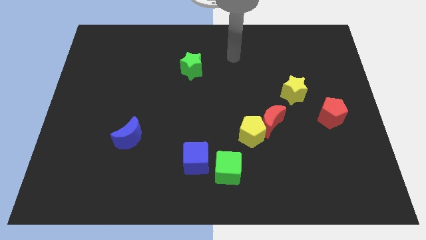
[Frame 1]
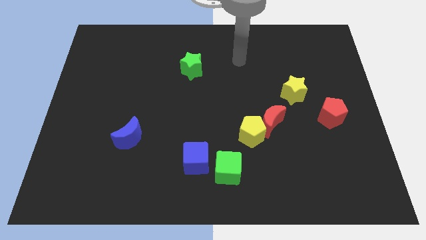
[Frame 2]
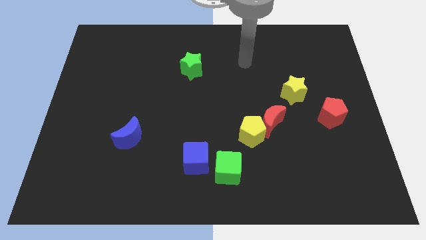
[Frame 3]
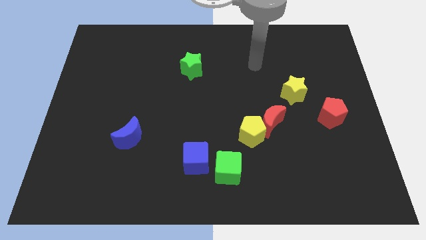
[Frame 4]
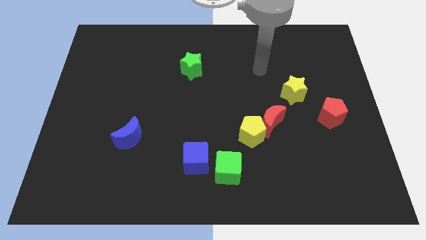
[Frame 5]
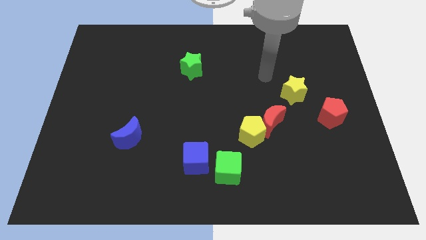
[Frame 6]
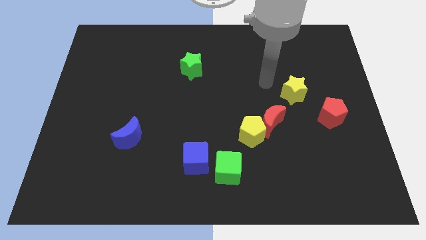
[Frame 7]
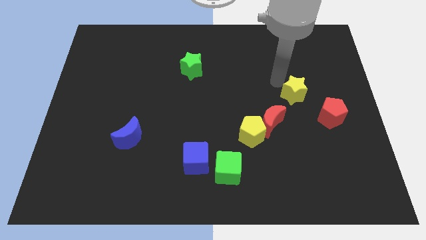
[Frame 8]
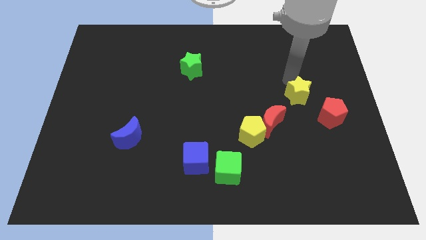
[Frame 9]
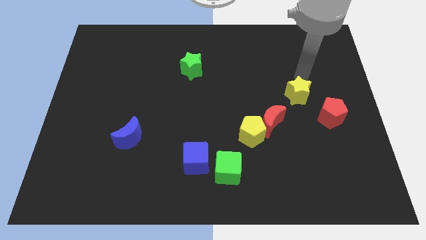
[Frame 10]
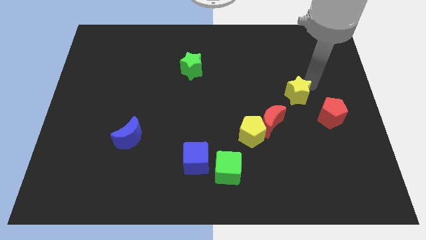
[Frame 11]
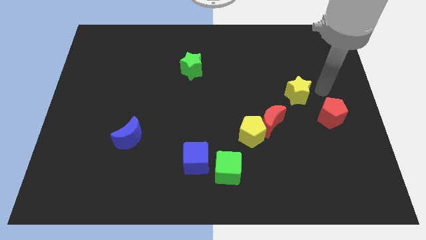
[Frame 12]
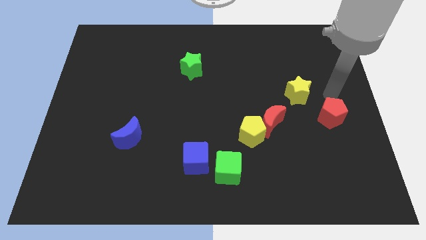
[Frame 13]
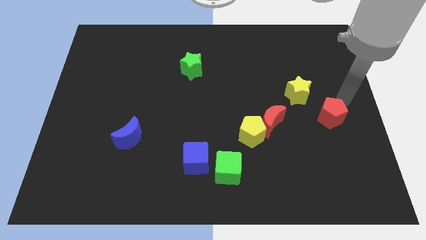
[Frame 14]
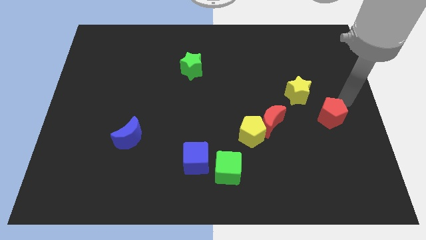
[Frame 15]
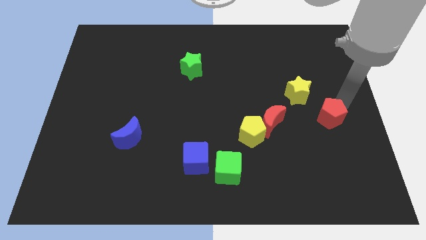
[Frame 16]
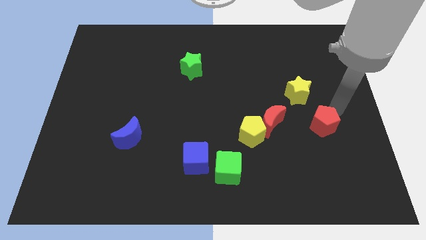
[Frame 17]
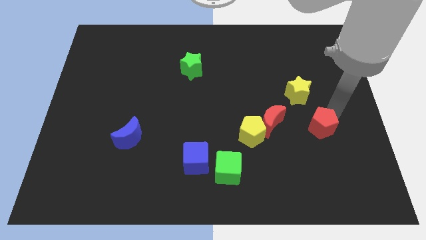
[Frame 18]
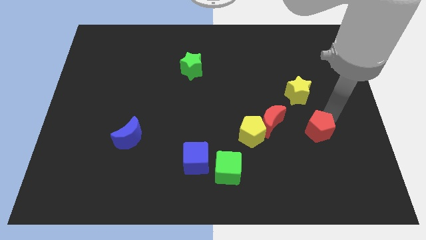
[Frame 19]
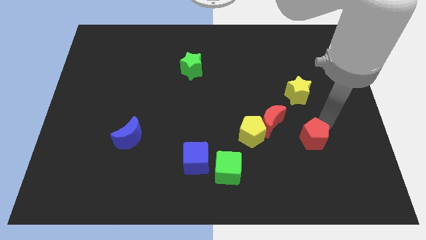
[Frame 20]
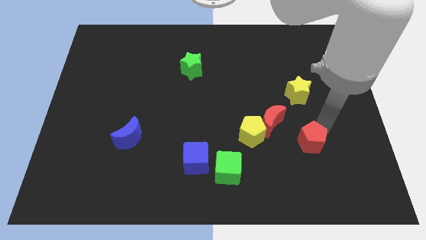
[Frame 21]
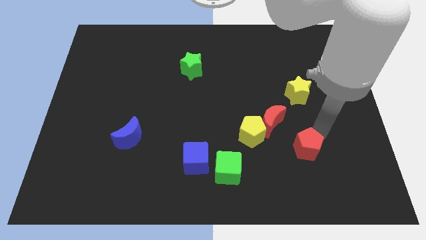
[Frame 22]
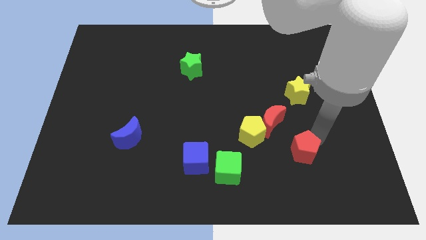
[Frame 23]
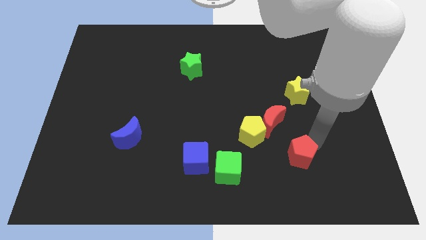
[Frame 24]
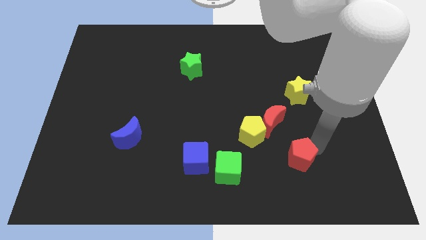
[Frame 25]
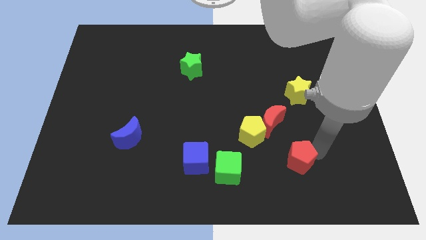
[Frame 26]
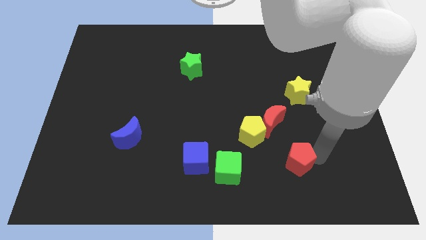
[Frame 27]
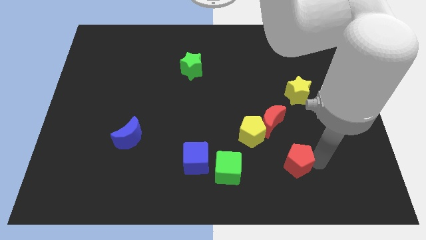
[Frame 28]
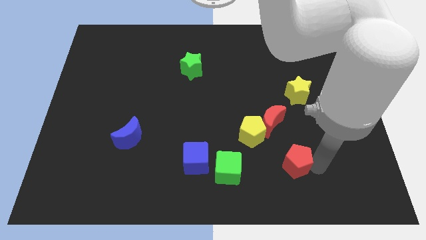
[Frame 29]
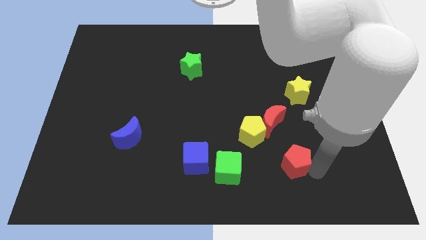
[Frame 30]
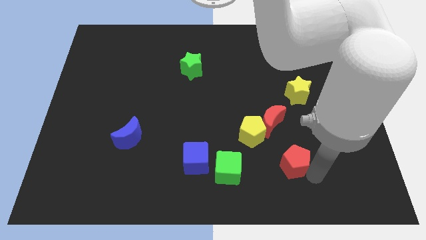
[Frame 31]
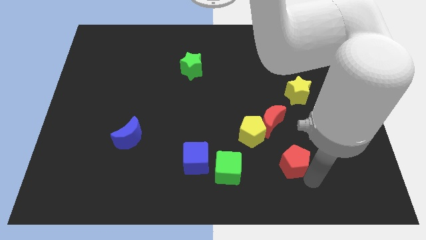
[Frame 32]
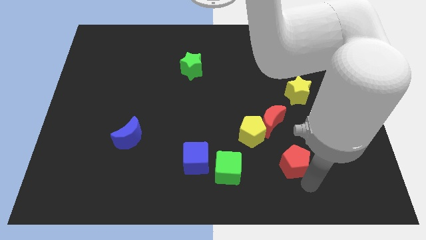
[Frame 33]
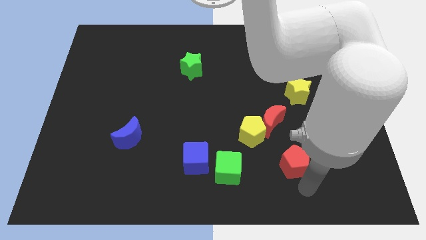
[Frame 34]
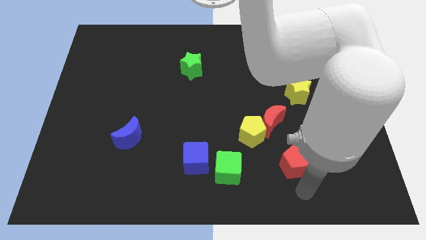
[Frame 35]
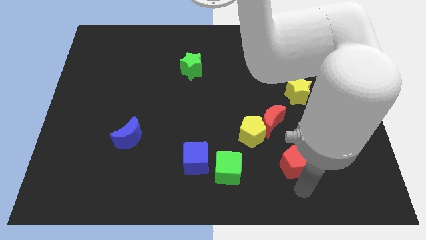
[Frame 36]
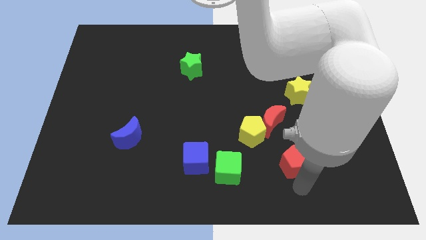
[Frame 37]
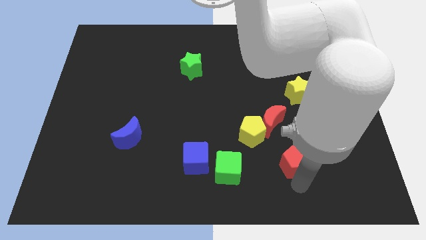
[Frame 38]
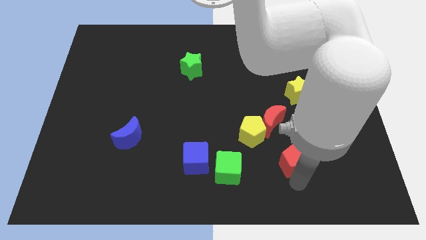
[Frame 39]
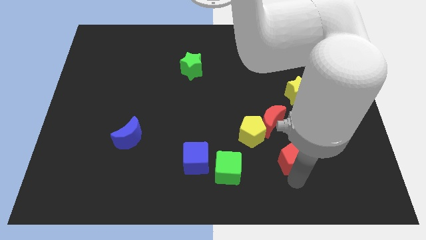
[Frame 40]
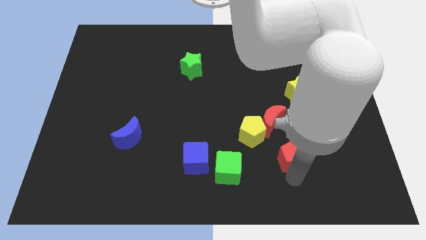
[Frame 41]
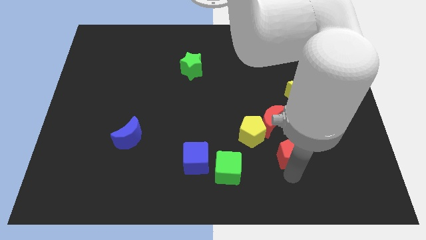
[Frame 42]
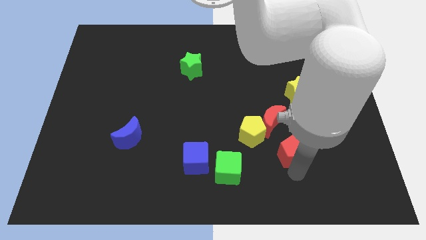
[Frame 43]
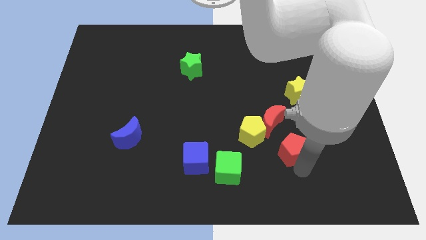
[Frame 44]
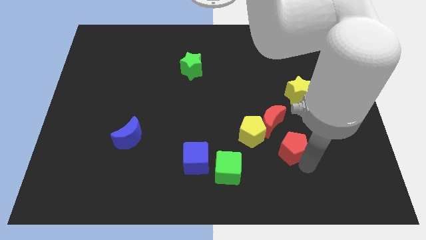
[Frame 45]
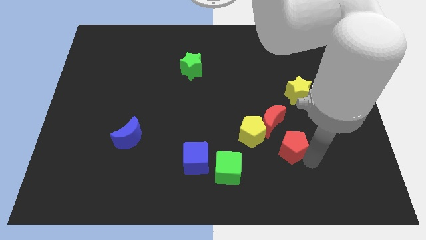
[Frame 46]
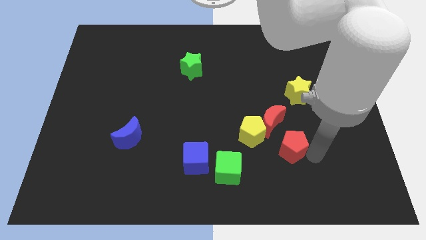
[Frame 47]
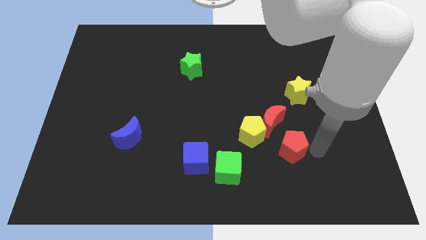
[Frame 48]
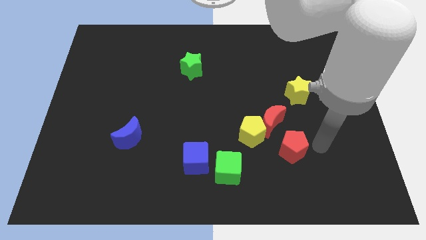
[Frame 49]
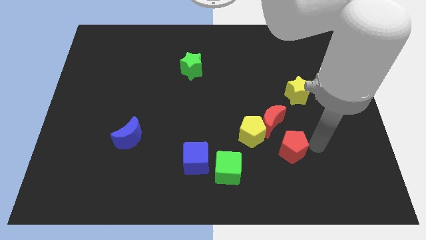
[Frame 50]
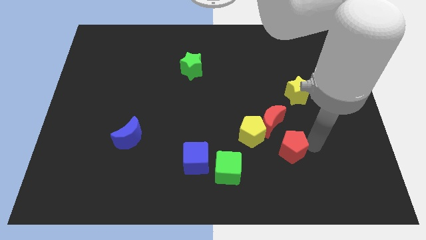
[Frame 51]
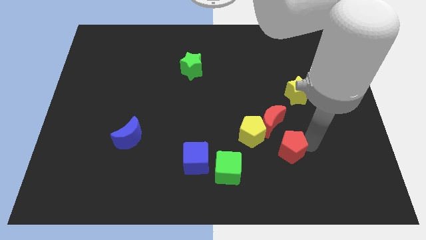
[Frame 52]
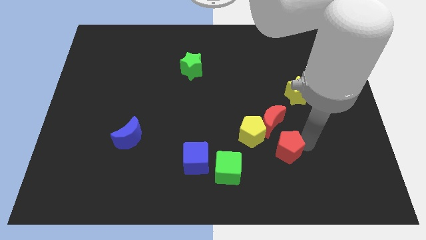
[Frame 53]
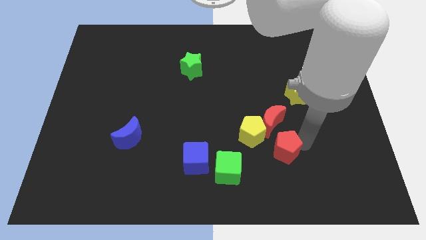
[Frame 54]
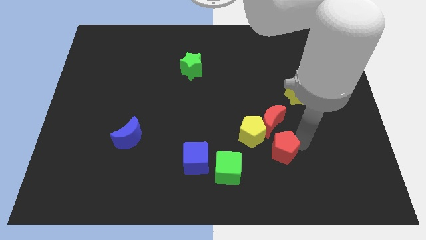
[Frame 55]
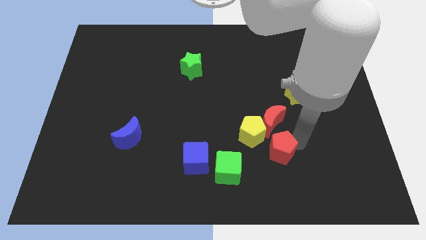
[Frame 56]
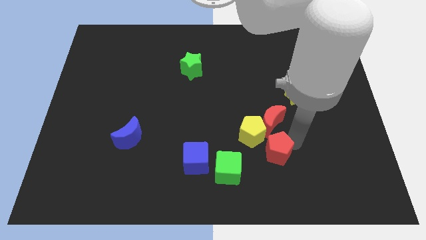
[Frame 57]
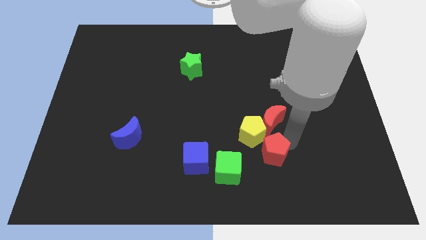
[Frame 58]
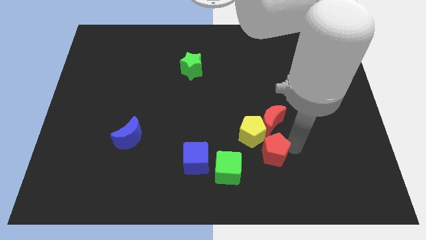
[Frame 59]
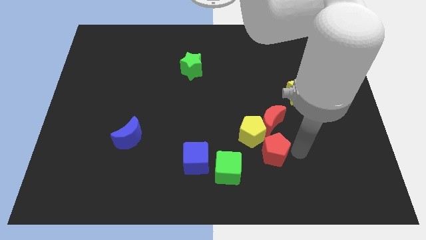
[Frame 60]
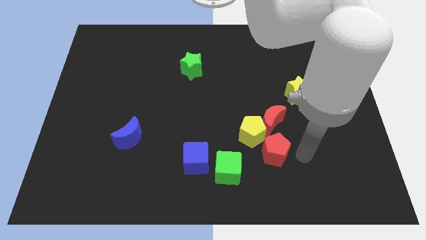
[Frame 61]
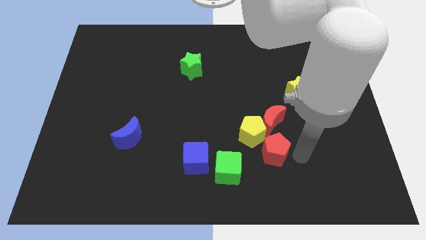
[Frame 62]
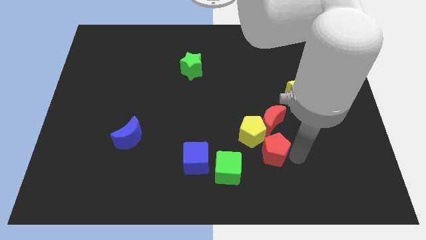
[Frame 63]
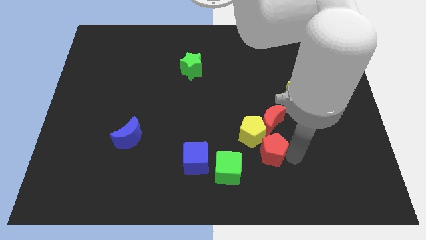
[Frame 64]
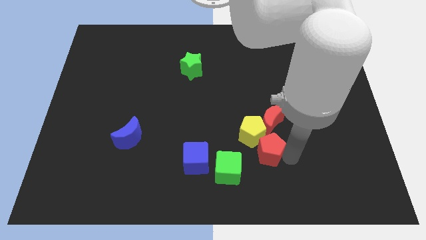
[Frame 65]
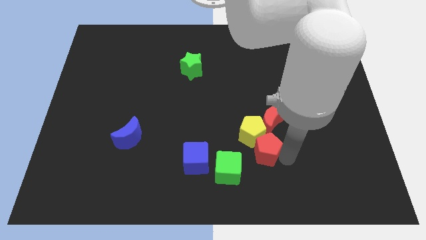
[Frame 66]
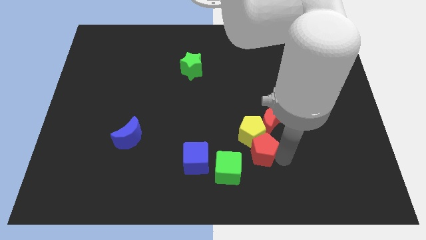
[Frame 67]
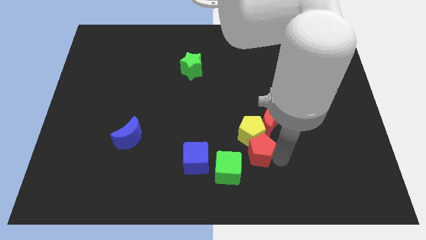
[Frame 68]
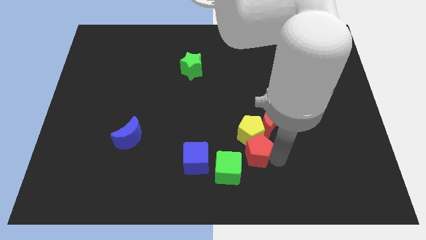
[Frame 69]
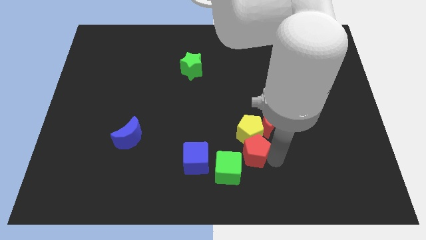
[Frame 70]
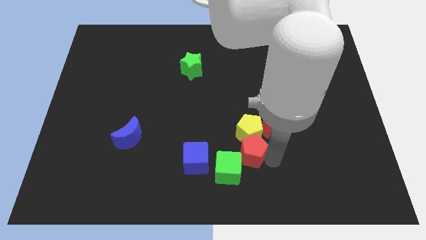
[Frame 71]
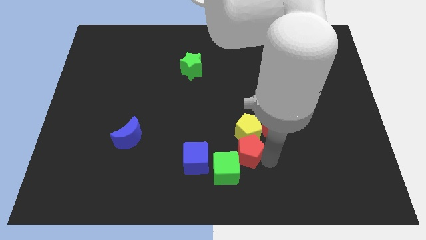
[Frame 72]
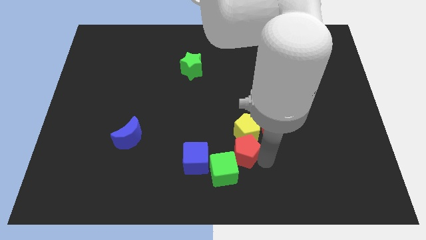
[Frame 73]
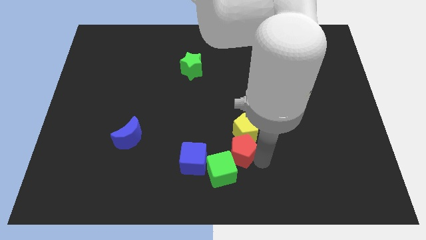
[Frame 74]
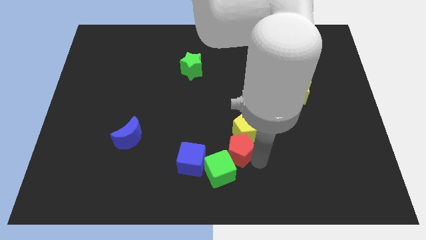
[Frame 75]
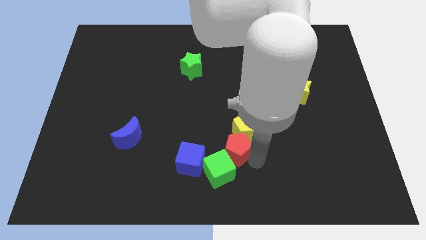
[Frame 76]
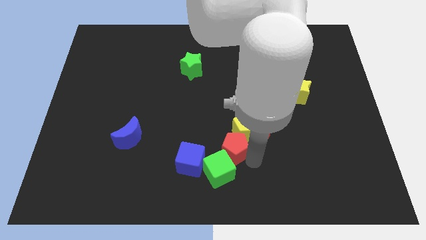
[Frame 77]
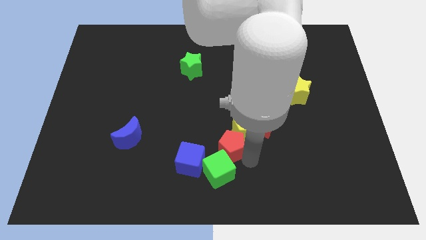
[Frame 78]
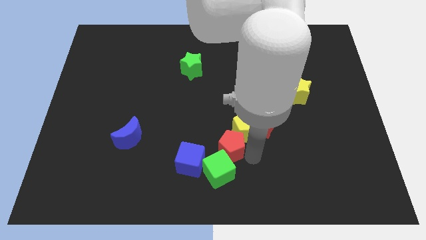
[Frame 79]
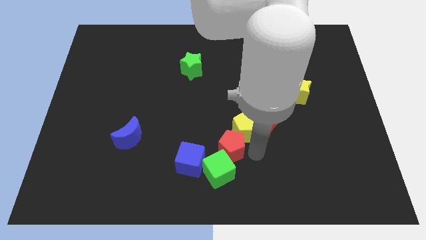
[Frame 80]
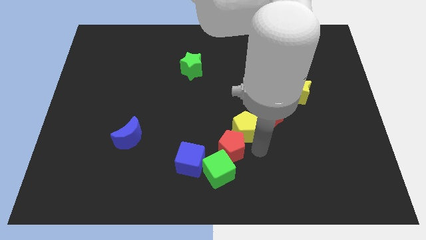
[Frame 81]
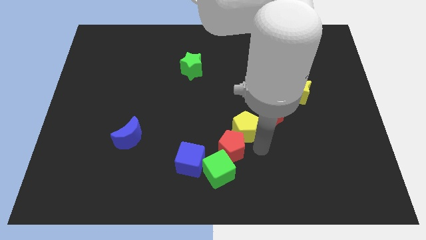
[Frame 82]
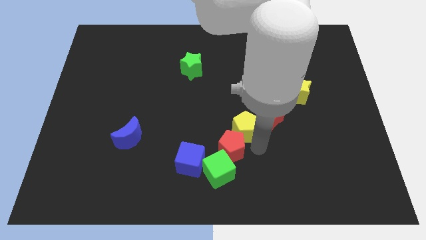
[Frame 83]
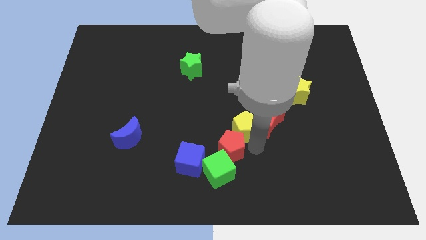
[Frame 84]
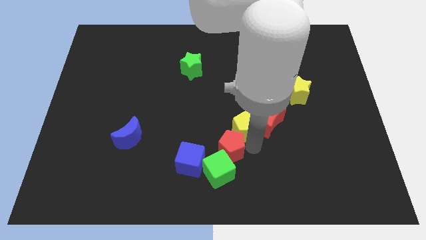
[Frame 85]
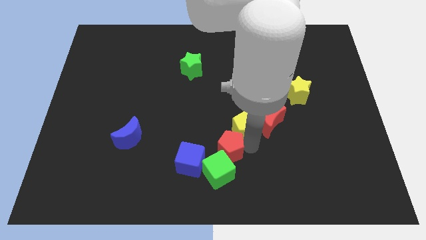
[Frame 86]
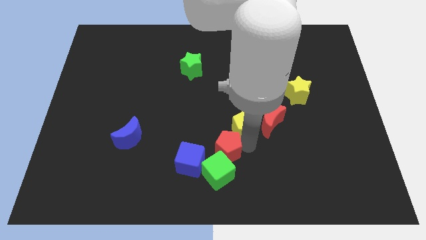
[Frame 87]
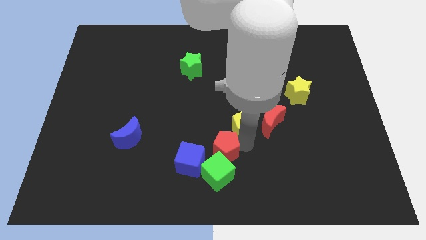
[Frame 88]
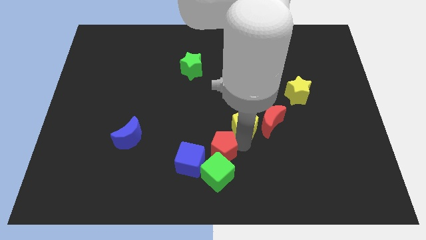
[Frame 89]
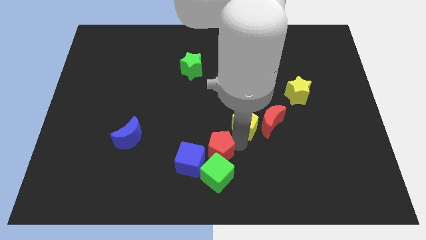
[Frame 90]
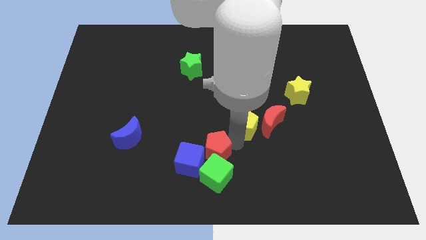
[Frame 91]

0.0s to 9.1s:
move the red pentagon next to the blue cube
